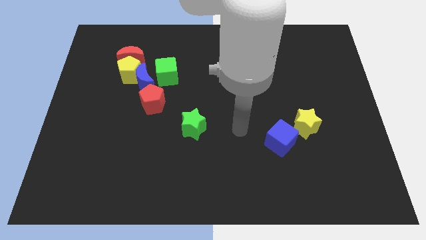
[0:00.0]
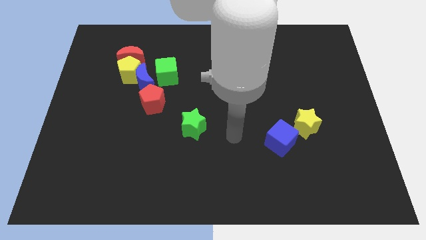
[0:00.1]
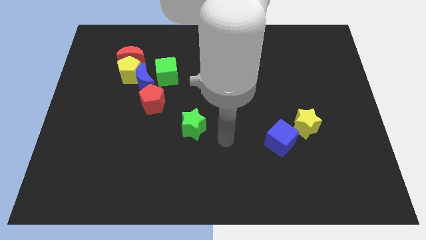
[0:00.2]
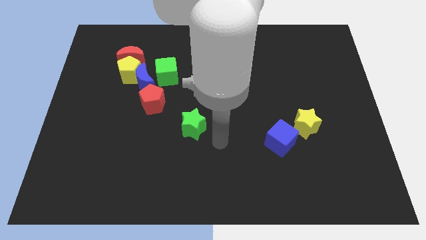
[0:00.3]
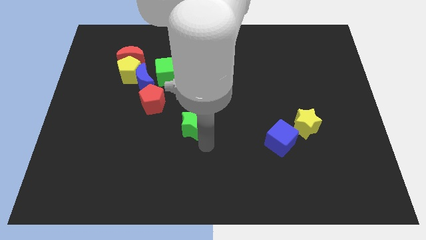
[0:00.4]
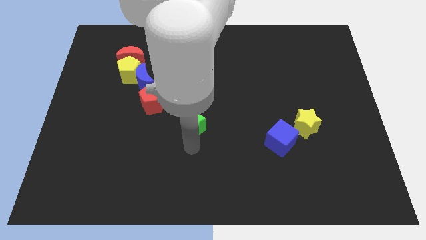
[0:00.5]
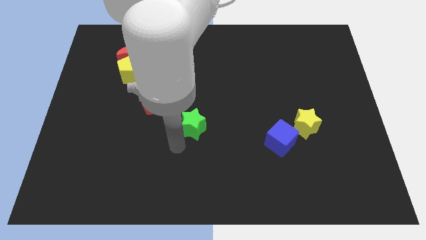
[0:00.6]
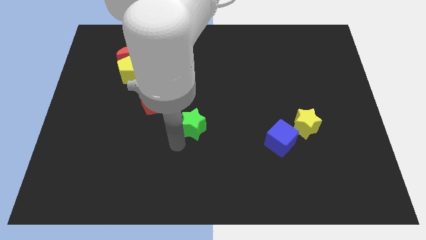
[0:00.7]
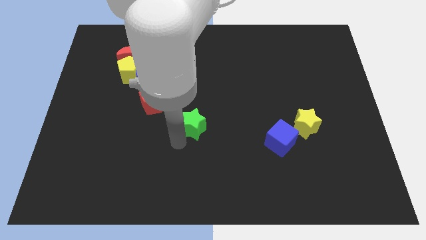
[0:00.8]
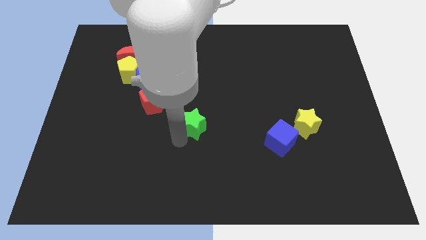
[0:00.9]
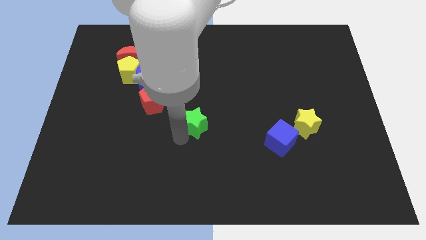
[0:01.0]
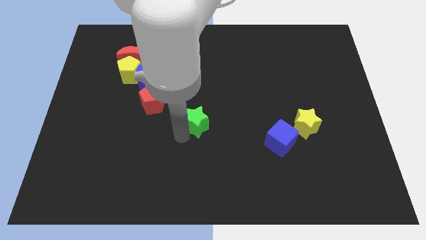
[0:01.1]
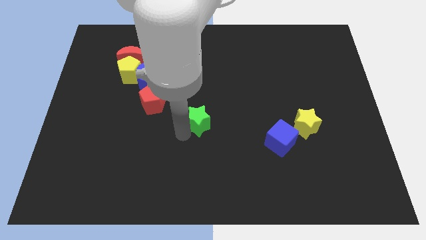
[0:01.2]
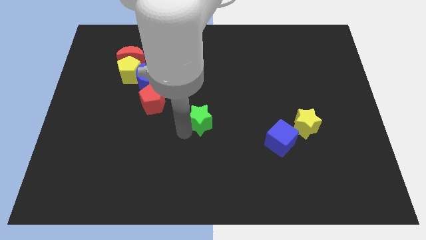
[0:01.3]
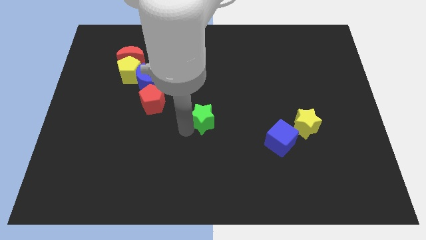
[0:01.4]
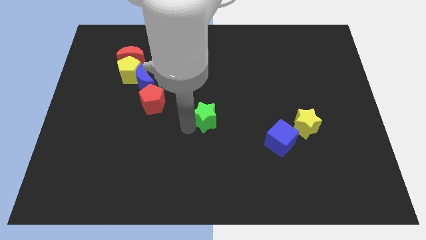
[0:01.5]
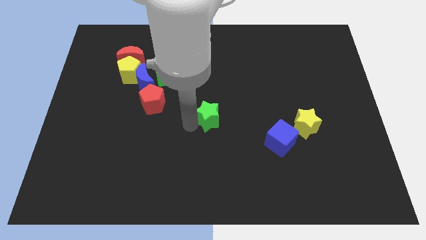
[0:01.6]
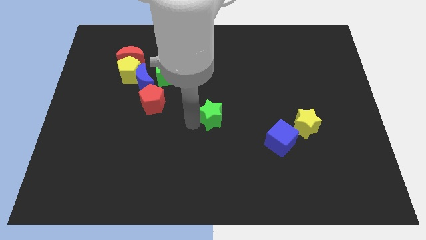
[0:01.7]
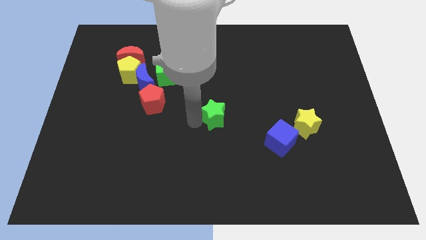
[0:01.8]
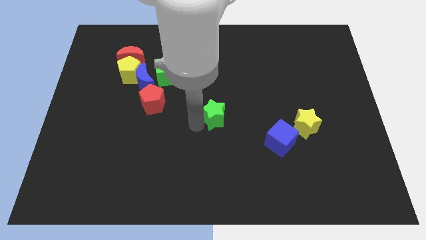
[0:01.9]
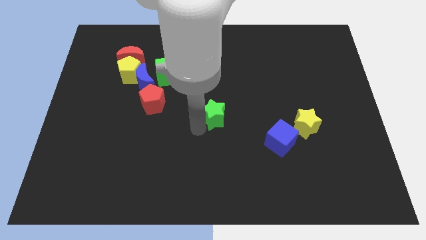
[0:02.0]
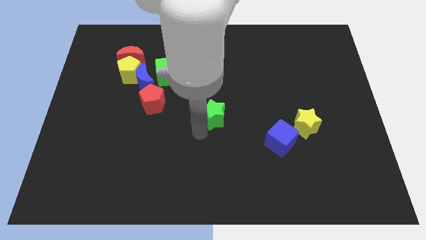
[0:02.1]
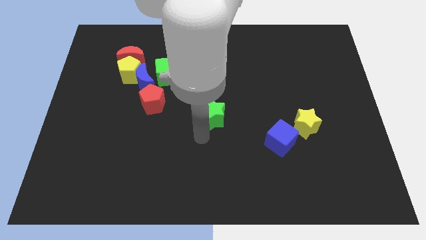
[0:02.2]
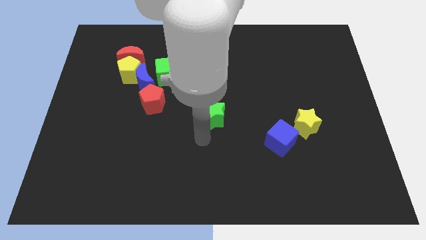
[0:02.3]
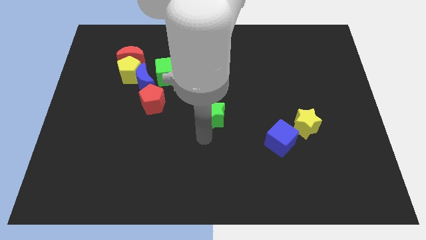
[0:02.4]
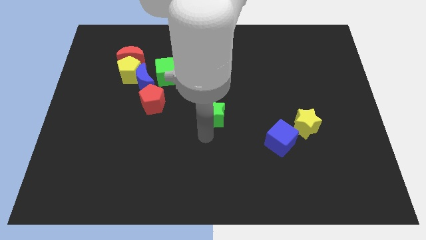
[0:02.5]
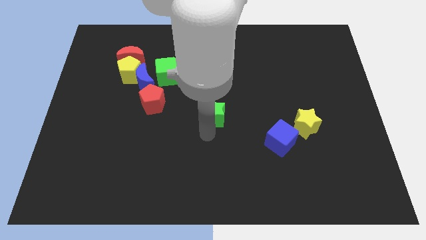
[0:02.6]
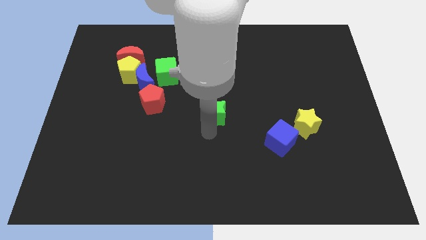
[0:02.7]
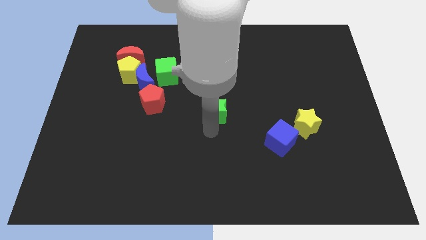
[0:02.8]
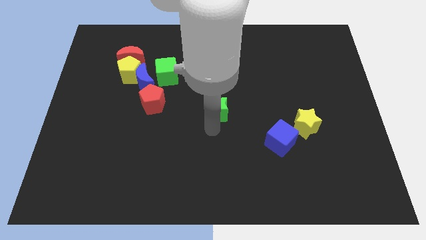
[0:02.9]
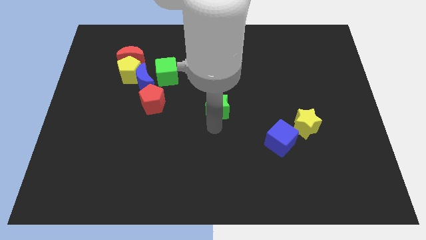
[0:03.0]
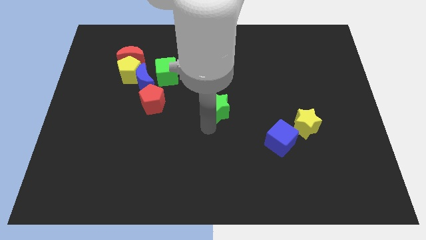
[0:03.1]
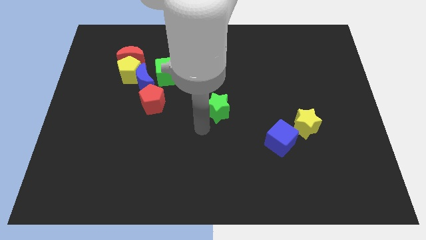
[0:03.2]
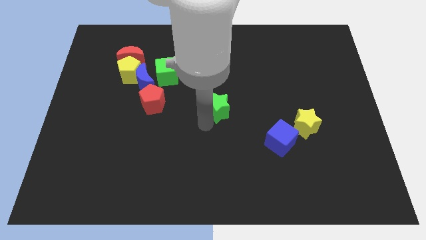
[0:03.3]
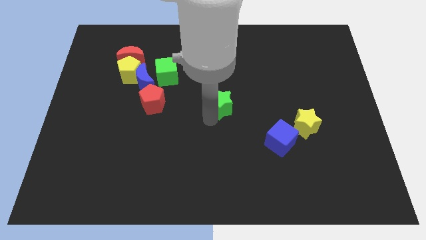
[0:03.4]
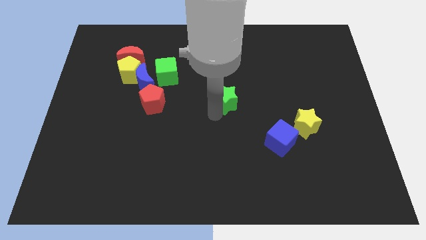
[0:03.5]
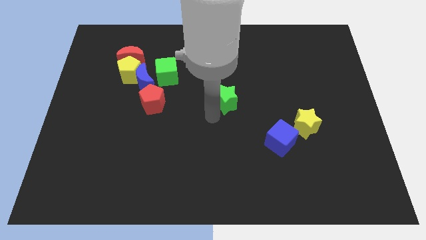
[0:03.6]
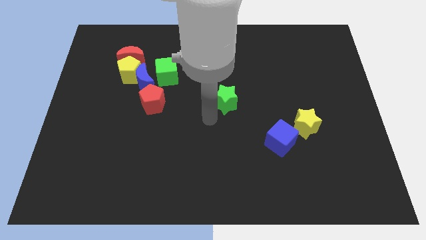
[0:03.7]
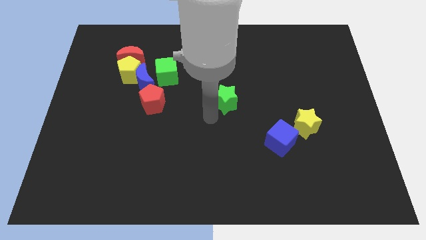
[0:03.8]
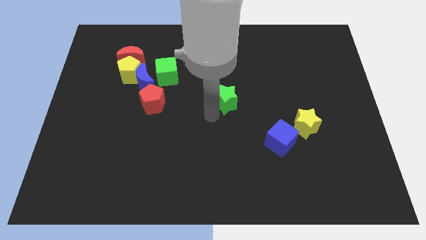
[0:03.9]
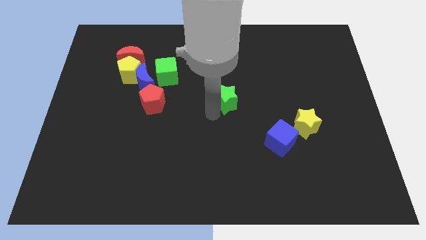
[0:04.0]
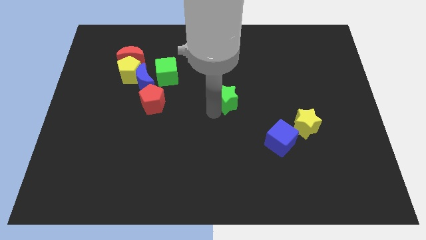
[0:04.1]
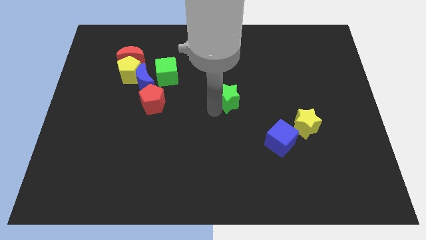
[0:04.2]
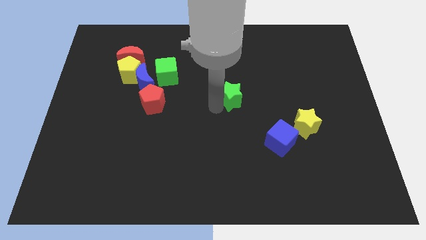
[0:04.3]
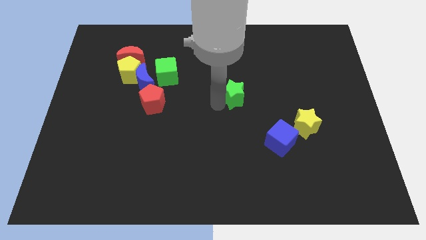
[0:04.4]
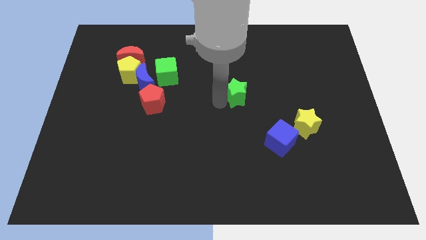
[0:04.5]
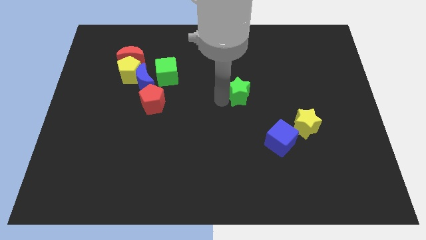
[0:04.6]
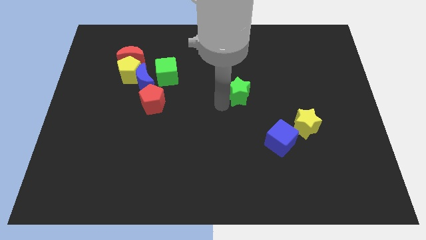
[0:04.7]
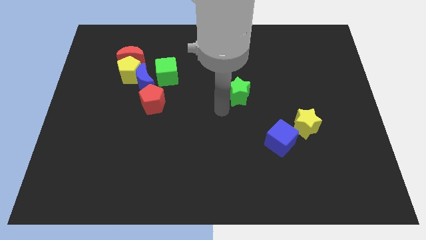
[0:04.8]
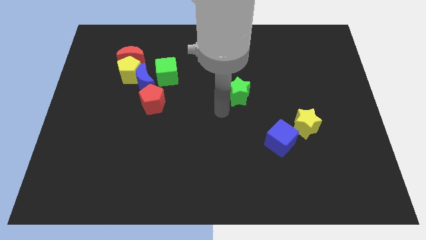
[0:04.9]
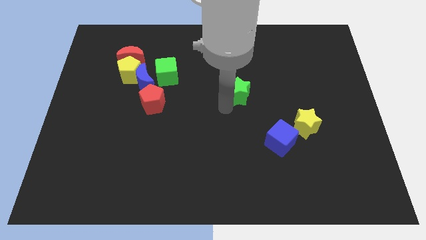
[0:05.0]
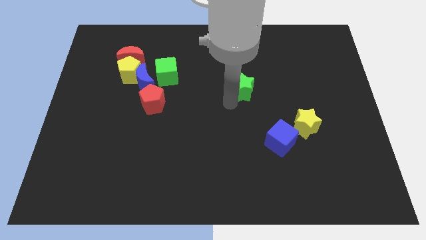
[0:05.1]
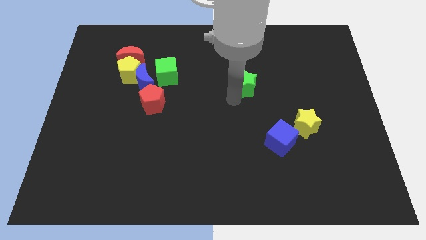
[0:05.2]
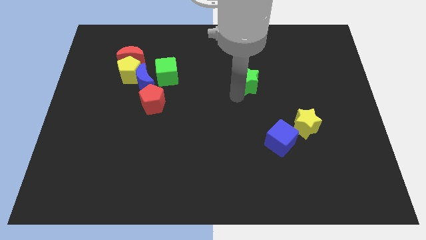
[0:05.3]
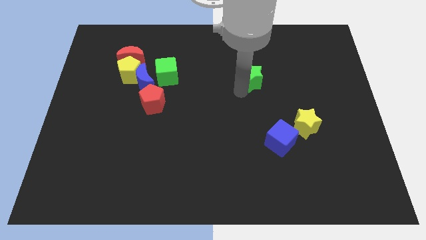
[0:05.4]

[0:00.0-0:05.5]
move the green star upwards and to the right diagonally

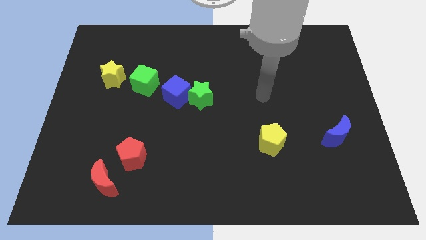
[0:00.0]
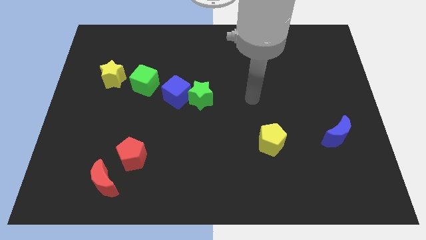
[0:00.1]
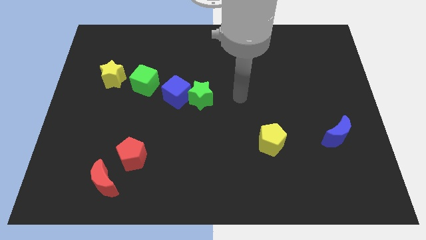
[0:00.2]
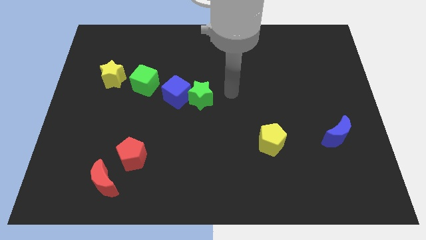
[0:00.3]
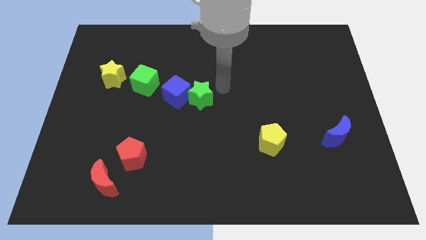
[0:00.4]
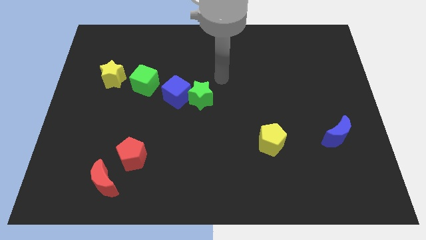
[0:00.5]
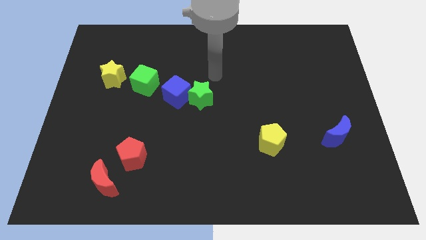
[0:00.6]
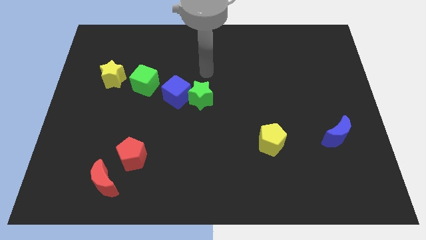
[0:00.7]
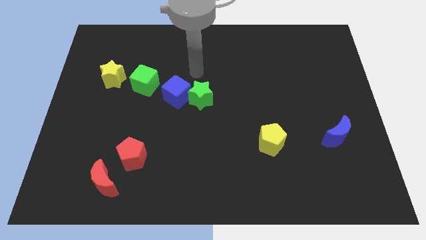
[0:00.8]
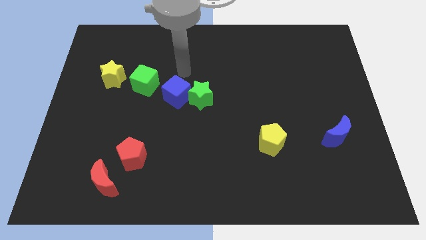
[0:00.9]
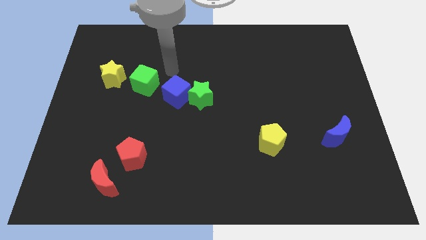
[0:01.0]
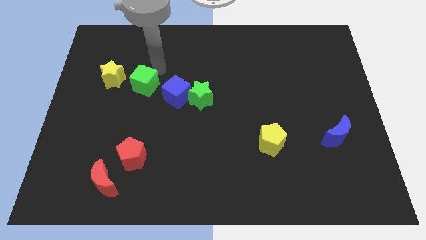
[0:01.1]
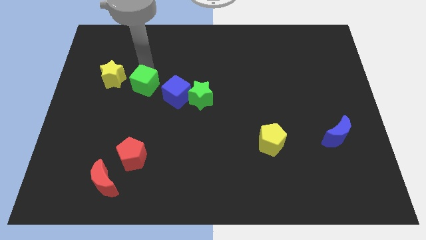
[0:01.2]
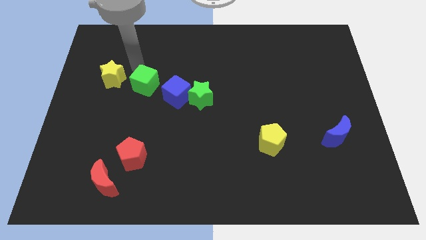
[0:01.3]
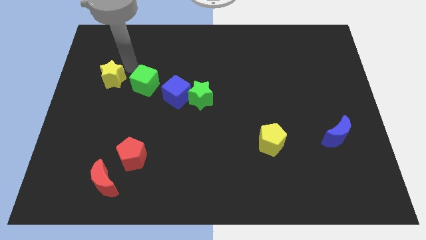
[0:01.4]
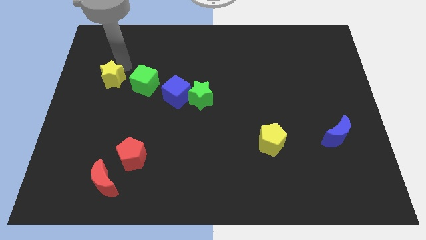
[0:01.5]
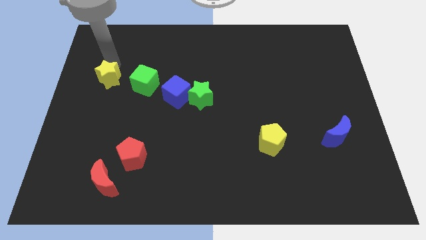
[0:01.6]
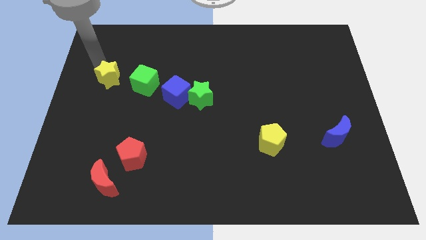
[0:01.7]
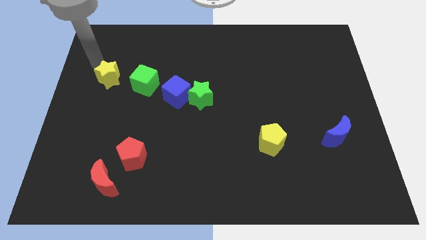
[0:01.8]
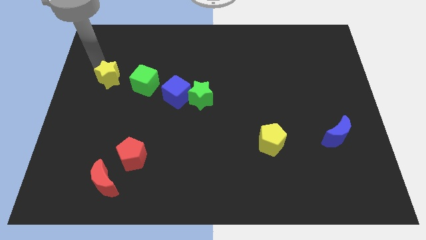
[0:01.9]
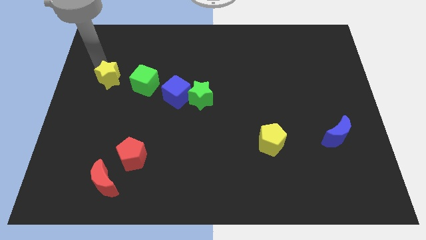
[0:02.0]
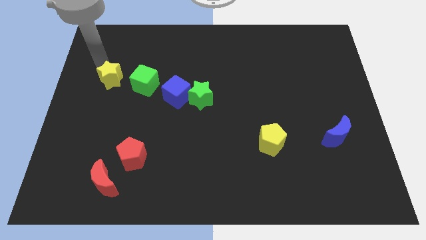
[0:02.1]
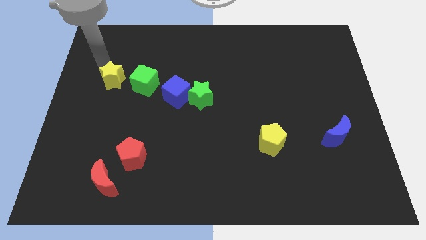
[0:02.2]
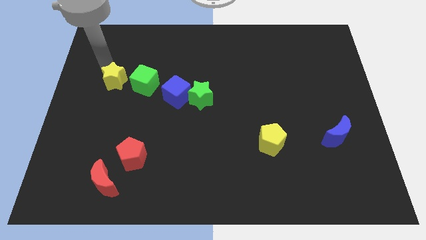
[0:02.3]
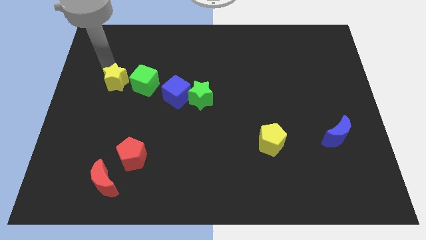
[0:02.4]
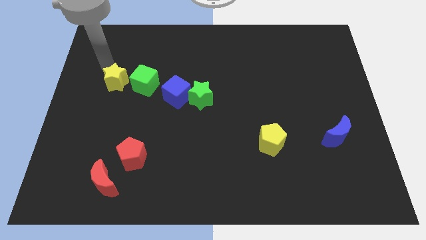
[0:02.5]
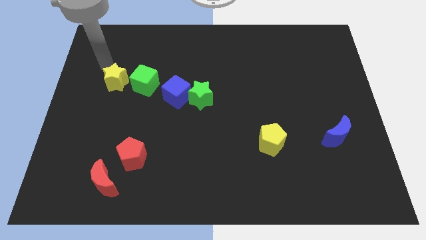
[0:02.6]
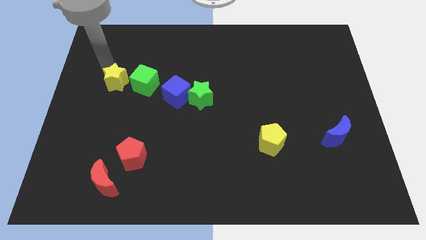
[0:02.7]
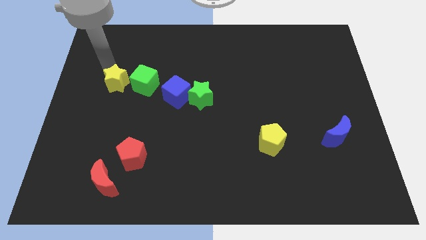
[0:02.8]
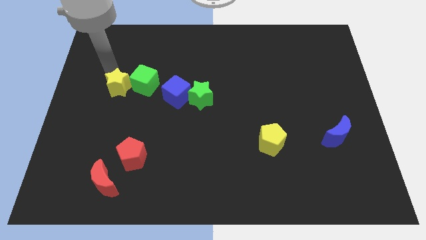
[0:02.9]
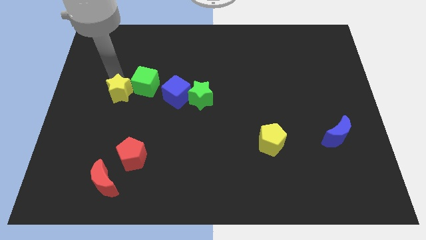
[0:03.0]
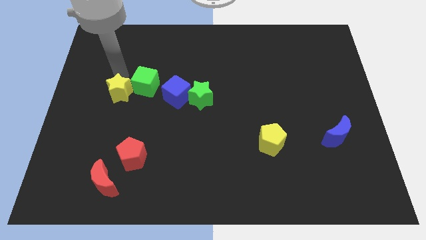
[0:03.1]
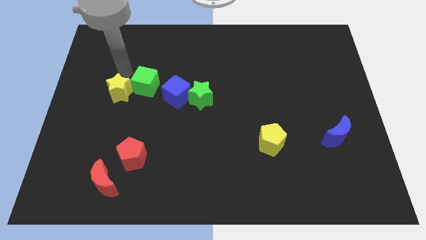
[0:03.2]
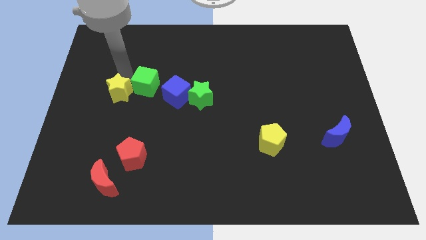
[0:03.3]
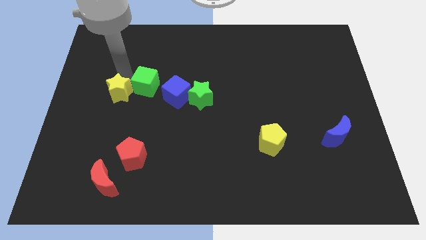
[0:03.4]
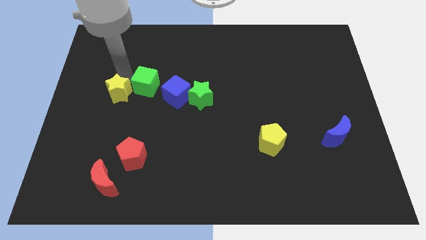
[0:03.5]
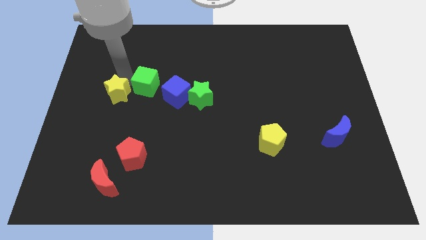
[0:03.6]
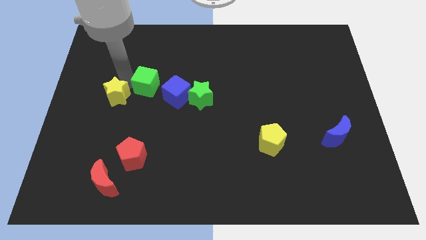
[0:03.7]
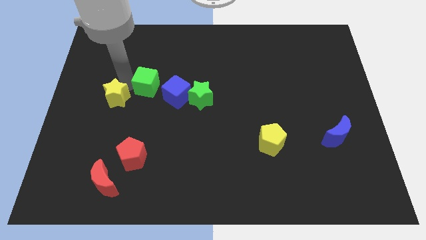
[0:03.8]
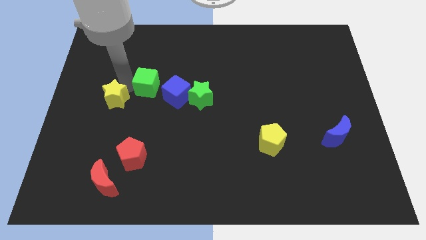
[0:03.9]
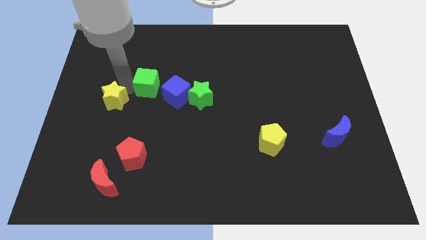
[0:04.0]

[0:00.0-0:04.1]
move the yellow star a little bit downwards
